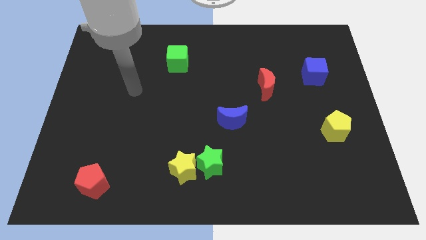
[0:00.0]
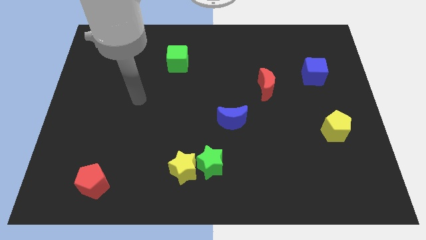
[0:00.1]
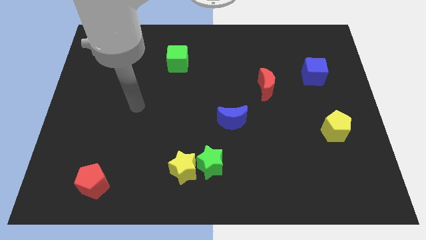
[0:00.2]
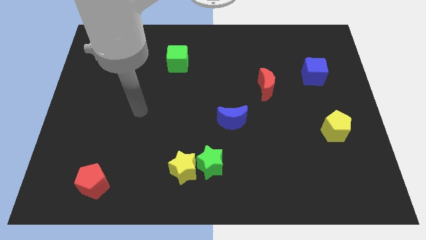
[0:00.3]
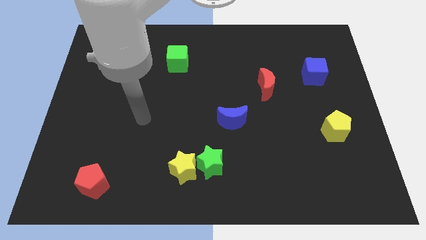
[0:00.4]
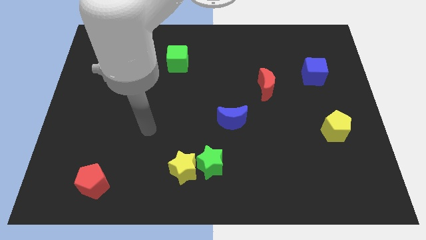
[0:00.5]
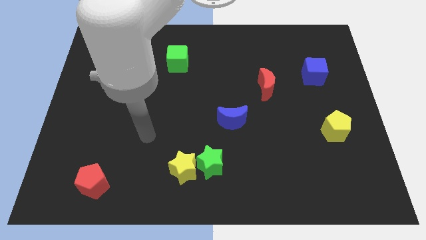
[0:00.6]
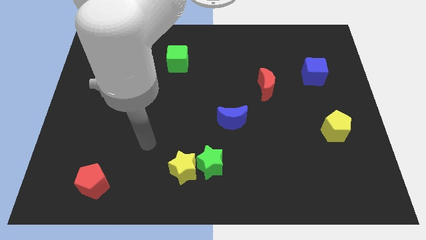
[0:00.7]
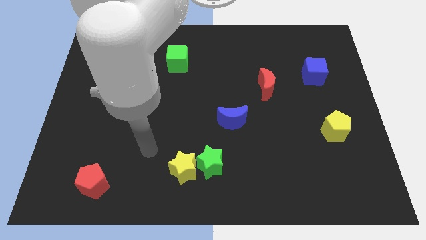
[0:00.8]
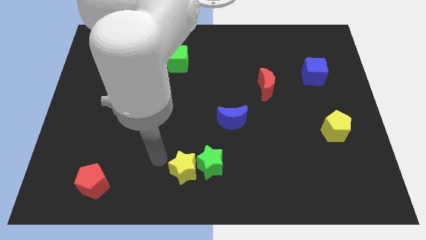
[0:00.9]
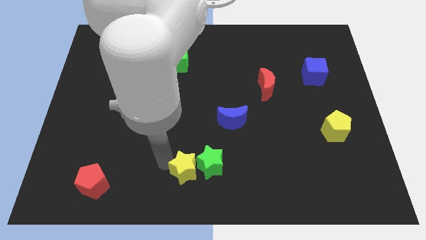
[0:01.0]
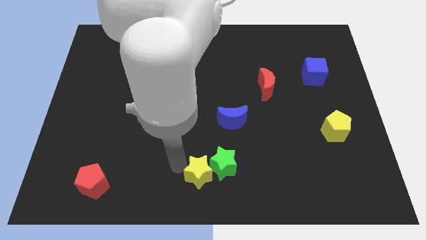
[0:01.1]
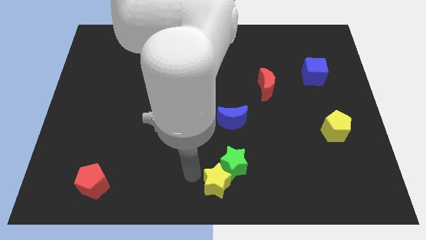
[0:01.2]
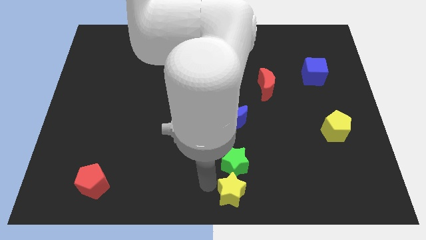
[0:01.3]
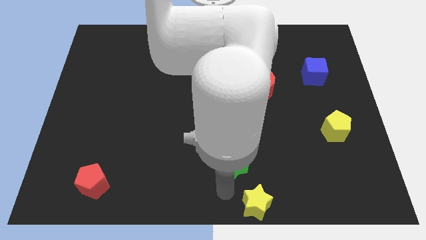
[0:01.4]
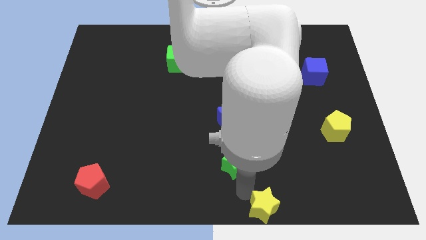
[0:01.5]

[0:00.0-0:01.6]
pull the green star apart from the yellow star

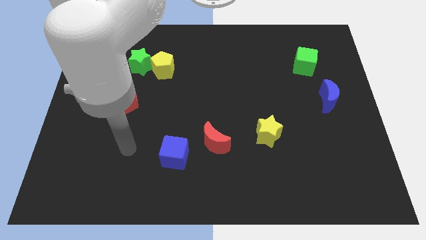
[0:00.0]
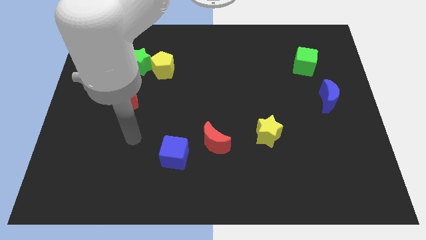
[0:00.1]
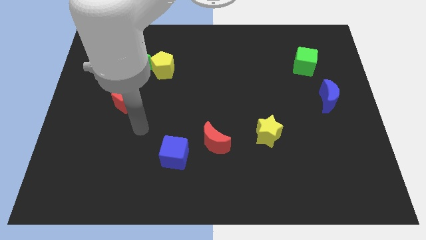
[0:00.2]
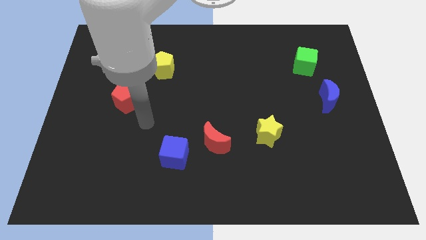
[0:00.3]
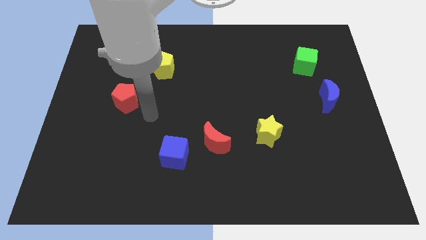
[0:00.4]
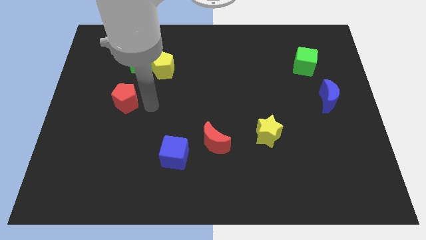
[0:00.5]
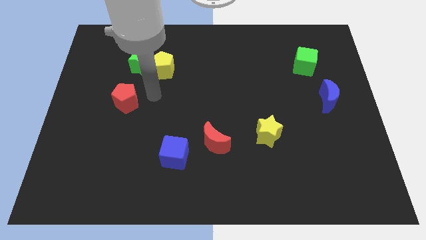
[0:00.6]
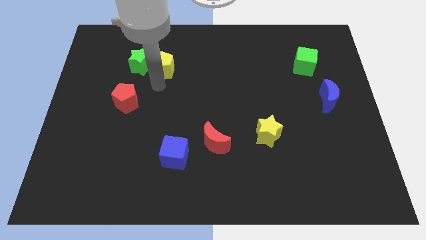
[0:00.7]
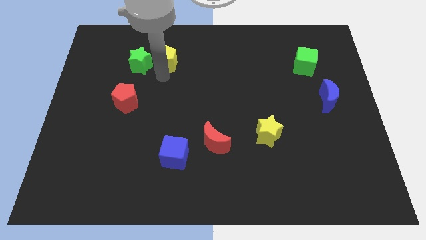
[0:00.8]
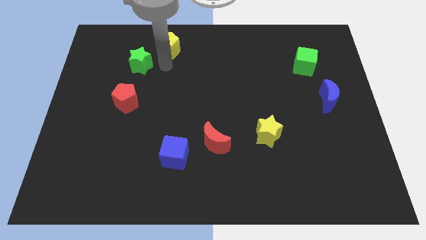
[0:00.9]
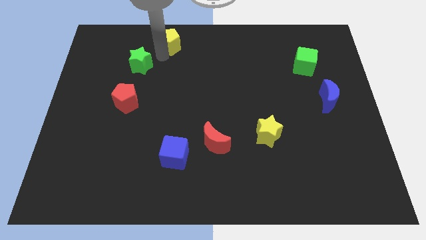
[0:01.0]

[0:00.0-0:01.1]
move the green star away from the yellow pentagon

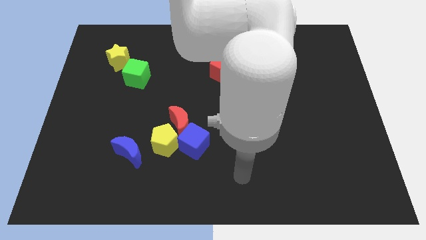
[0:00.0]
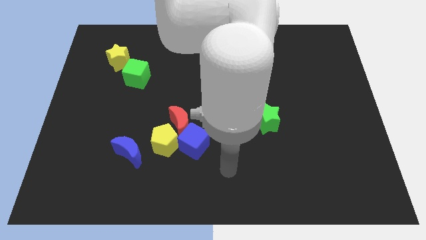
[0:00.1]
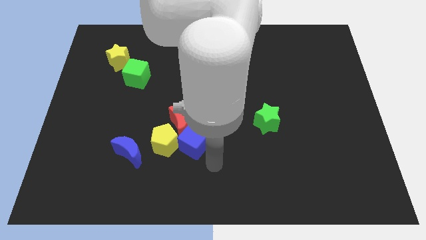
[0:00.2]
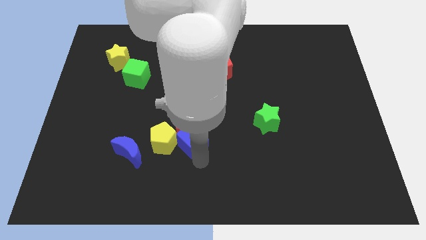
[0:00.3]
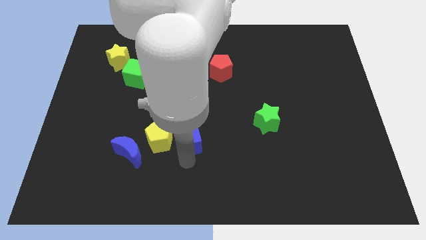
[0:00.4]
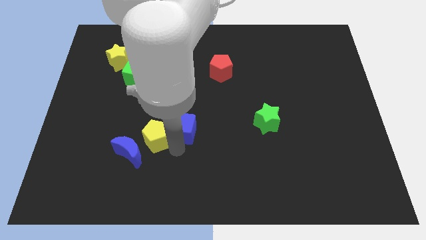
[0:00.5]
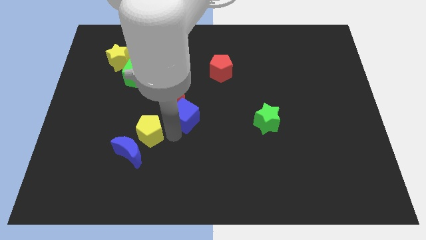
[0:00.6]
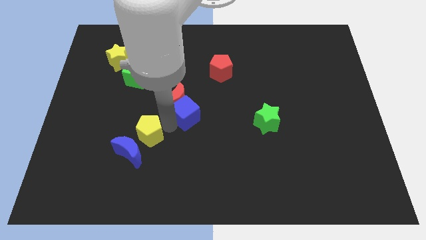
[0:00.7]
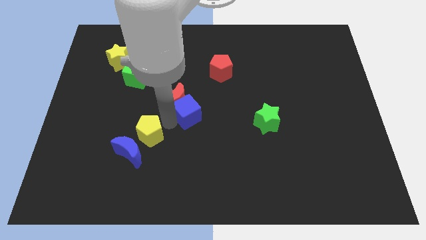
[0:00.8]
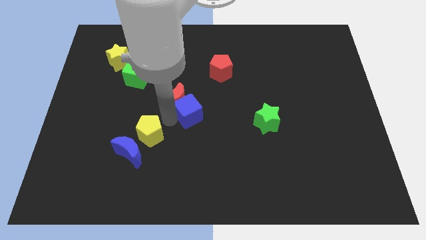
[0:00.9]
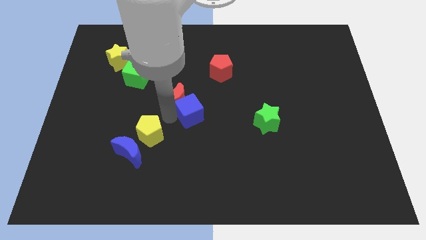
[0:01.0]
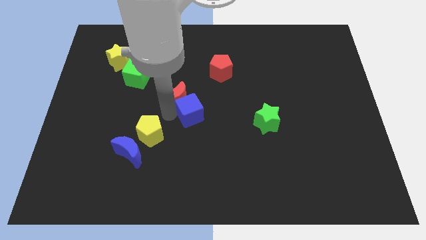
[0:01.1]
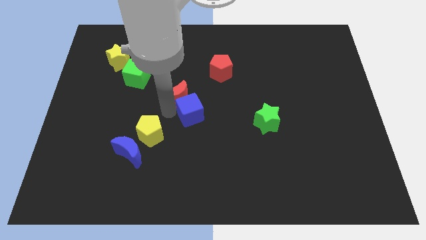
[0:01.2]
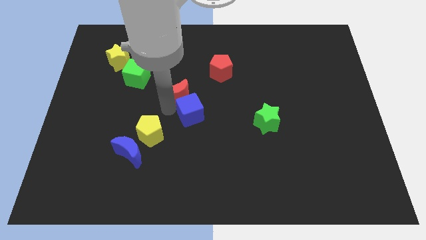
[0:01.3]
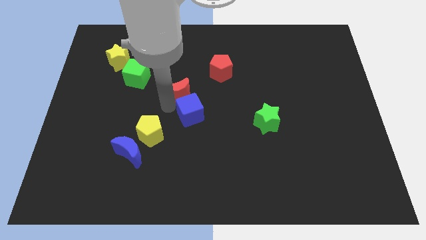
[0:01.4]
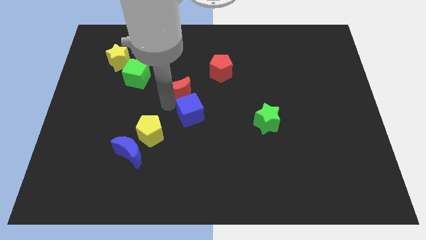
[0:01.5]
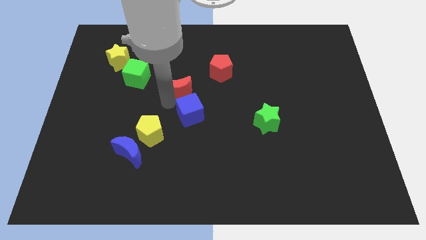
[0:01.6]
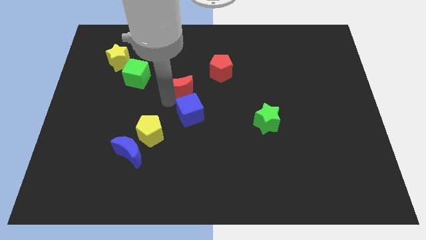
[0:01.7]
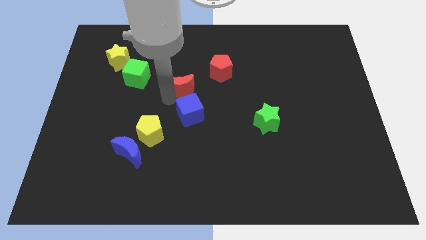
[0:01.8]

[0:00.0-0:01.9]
move the red moon away from the yellow pentagon and blue cube

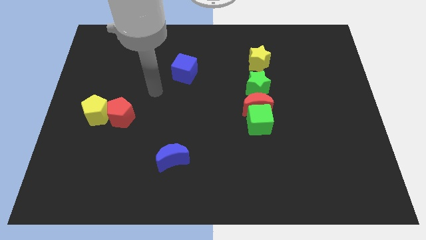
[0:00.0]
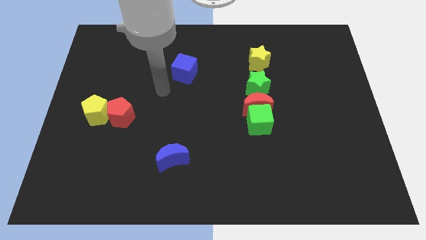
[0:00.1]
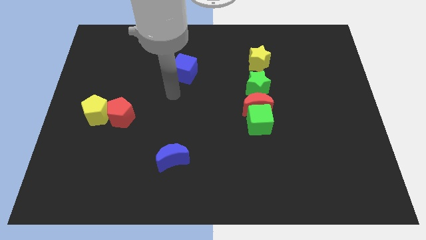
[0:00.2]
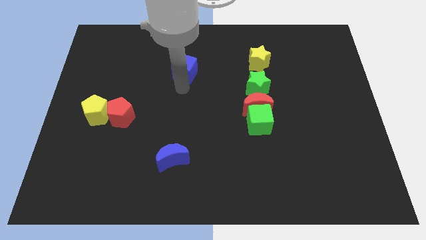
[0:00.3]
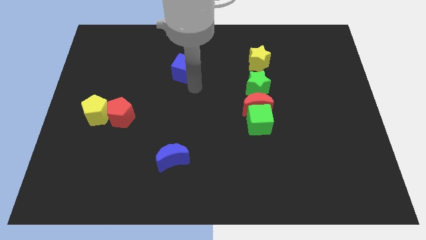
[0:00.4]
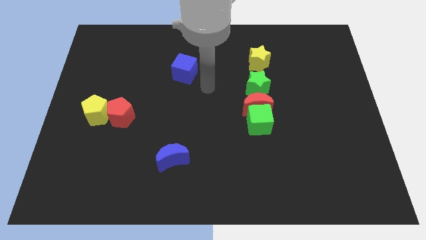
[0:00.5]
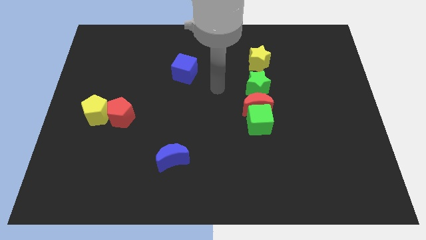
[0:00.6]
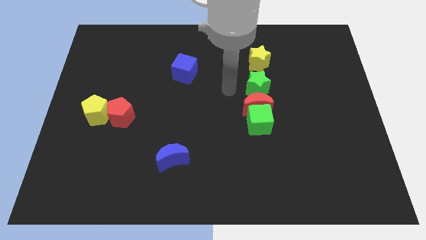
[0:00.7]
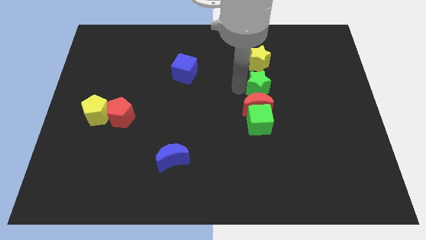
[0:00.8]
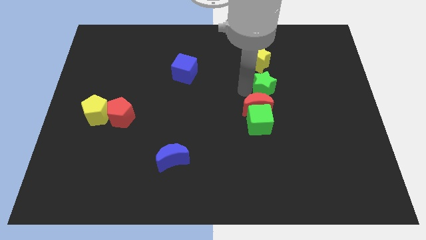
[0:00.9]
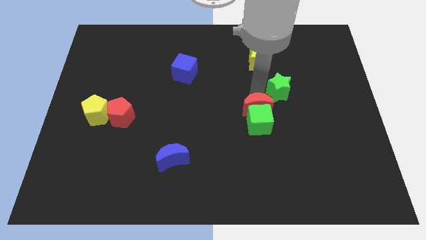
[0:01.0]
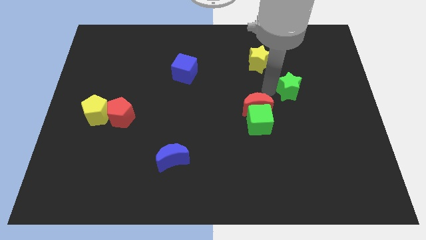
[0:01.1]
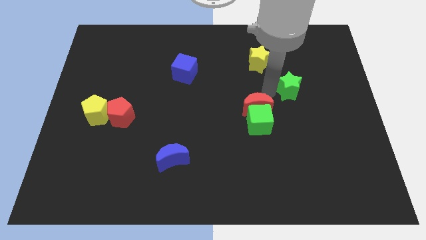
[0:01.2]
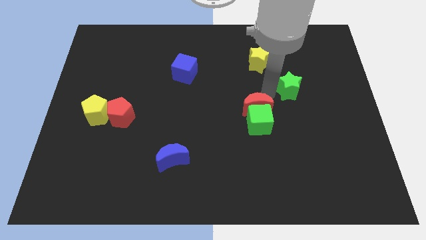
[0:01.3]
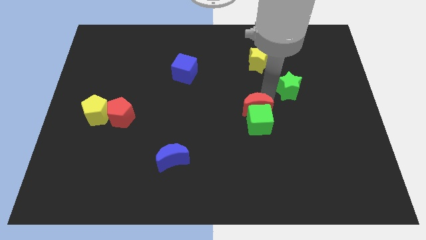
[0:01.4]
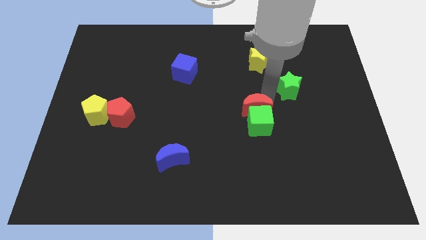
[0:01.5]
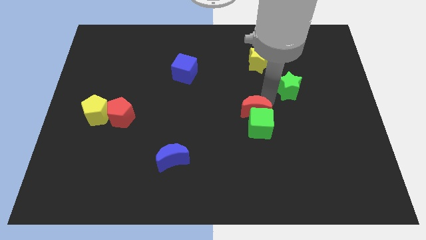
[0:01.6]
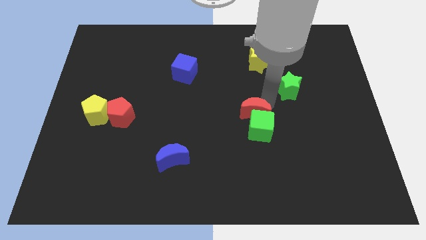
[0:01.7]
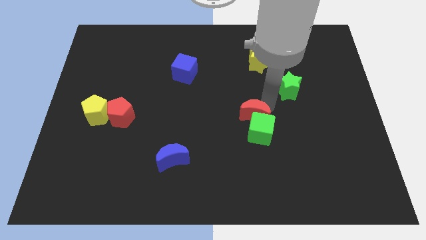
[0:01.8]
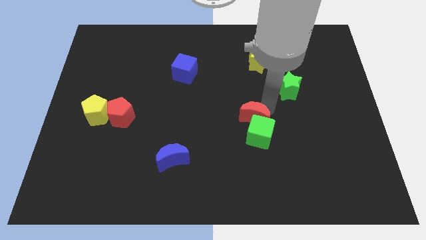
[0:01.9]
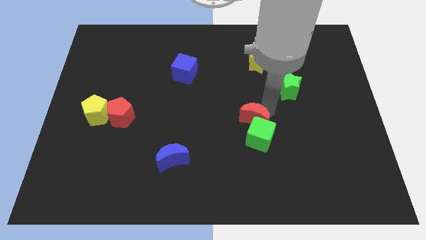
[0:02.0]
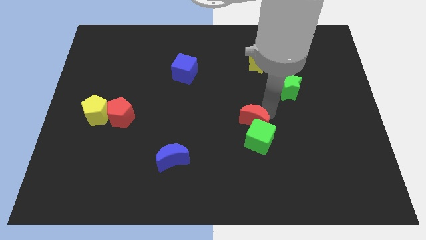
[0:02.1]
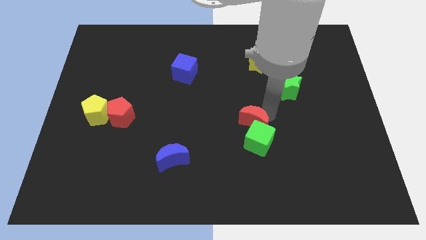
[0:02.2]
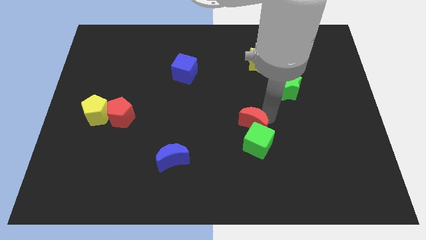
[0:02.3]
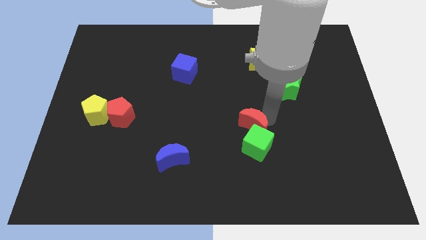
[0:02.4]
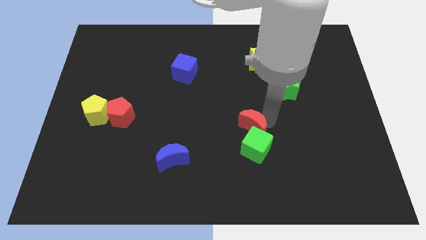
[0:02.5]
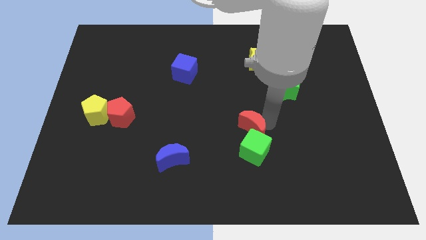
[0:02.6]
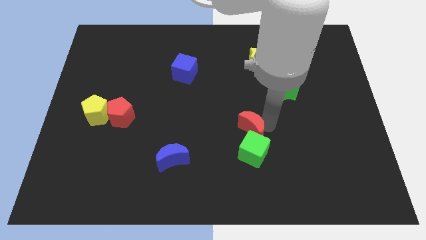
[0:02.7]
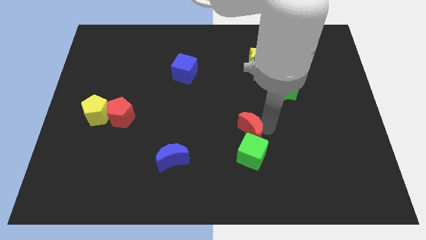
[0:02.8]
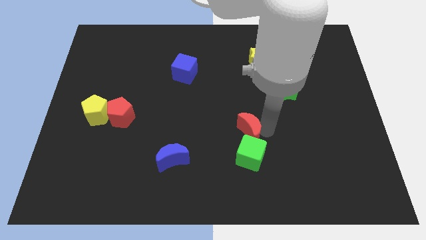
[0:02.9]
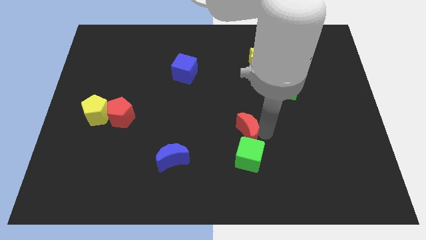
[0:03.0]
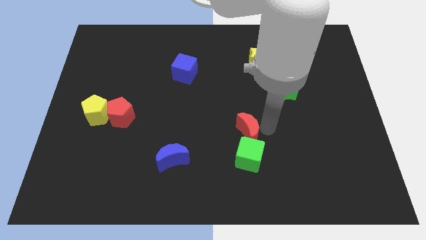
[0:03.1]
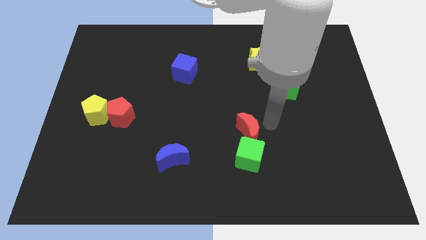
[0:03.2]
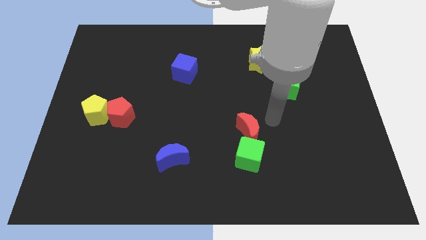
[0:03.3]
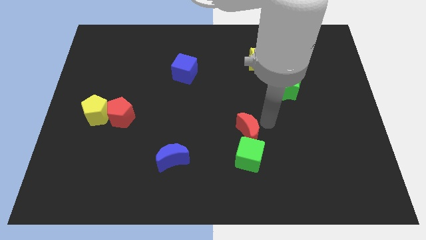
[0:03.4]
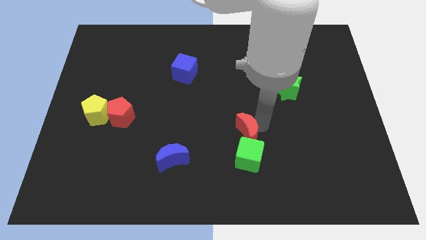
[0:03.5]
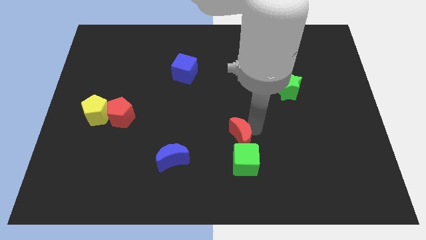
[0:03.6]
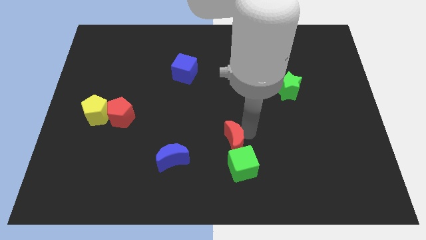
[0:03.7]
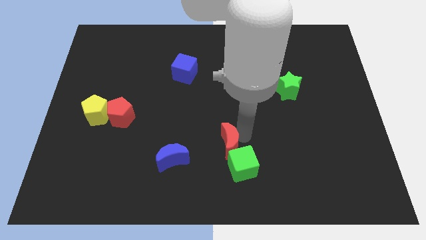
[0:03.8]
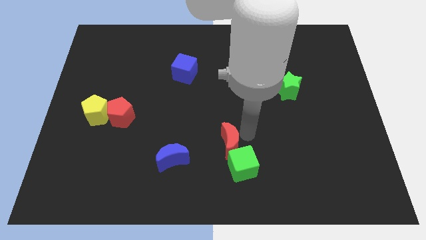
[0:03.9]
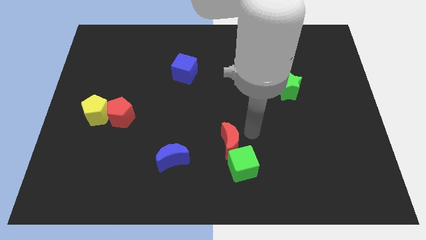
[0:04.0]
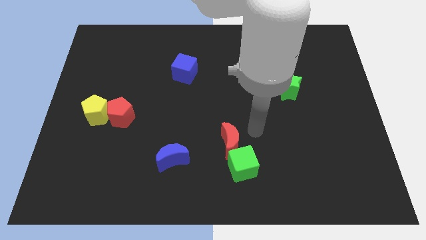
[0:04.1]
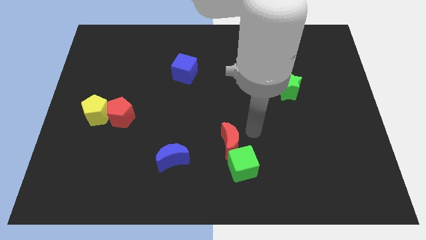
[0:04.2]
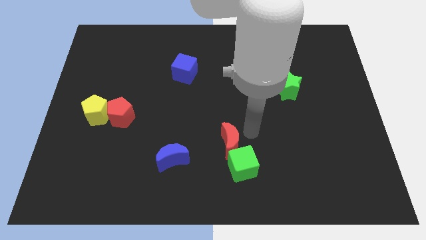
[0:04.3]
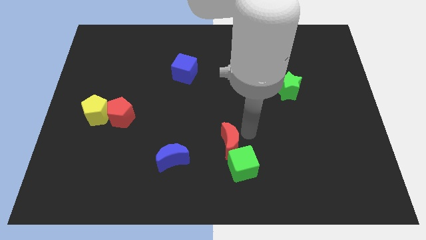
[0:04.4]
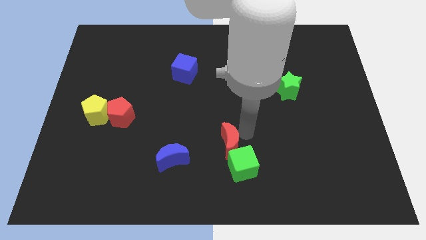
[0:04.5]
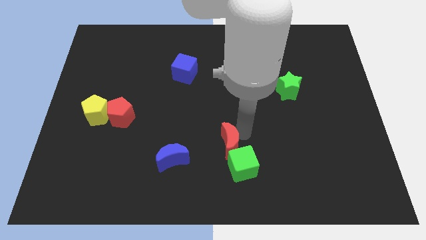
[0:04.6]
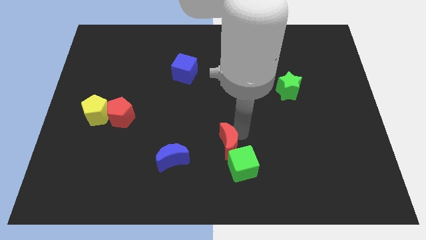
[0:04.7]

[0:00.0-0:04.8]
move the red moon away from the green cube and green star

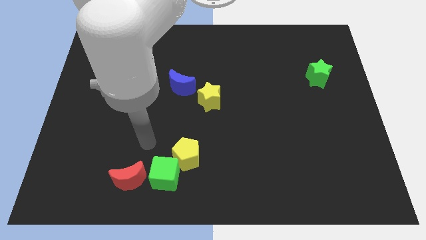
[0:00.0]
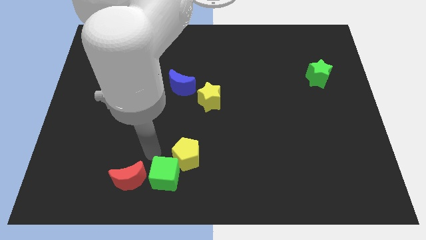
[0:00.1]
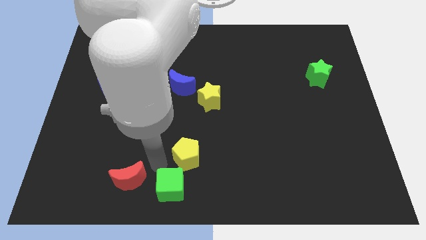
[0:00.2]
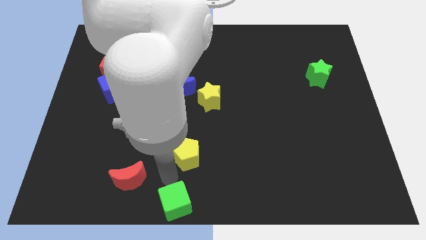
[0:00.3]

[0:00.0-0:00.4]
pull the yellow pentagon apart from the green cube
